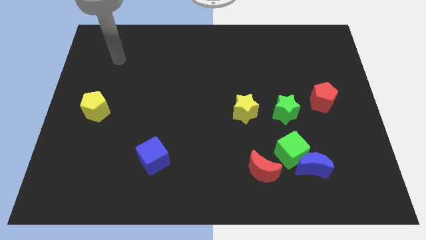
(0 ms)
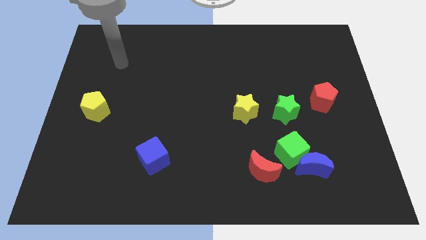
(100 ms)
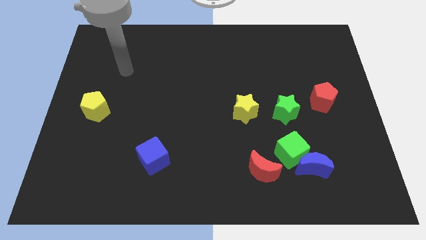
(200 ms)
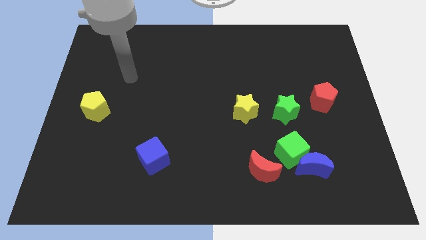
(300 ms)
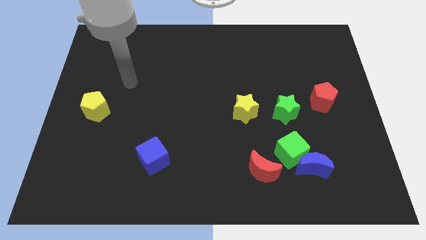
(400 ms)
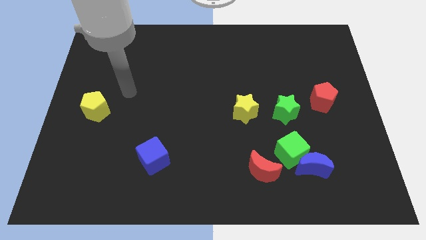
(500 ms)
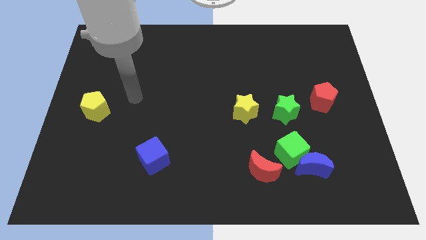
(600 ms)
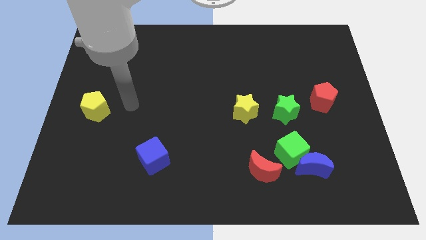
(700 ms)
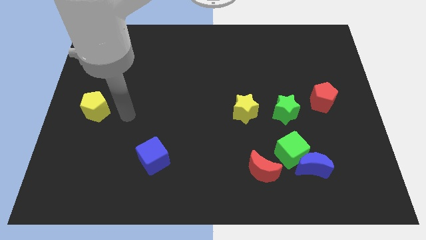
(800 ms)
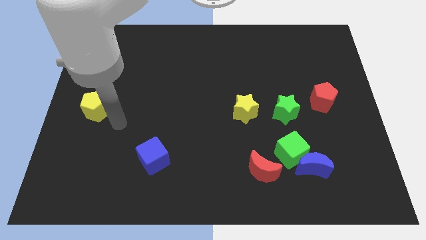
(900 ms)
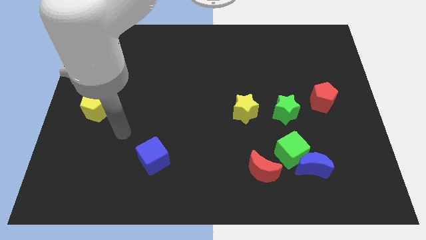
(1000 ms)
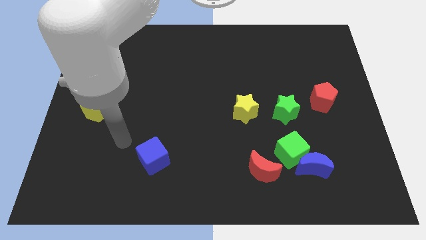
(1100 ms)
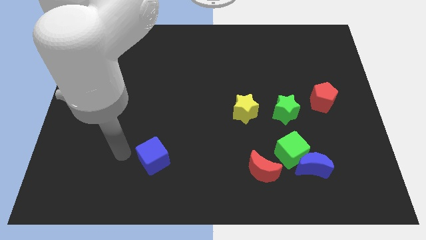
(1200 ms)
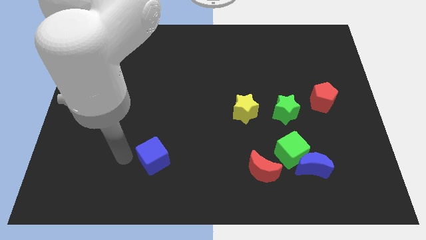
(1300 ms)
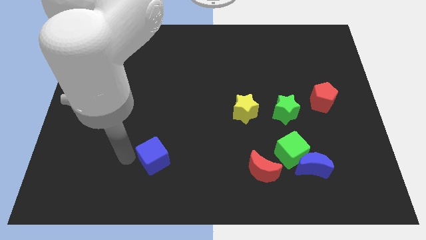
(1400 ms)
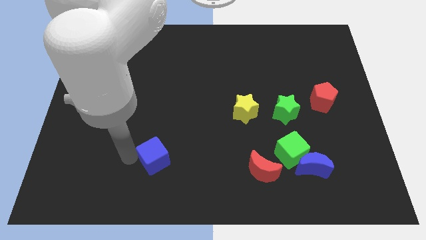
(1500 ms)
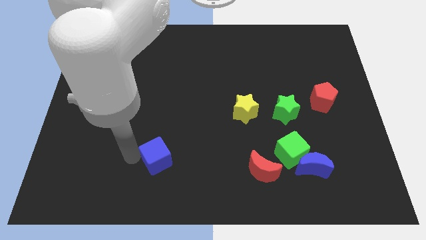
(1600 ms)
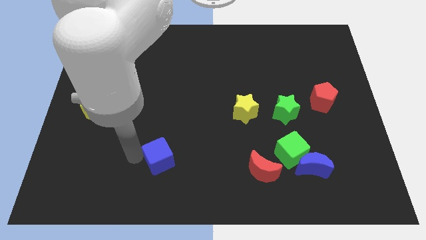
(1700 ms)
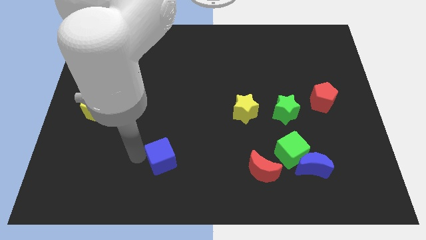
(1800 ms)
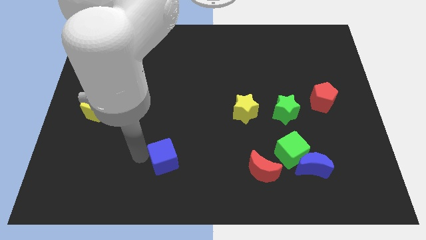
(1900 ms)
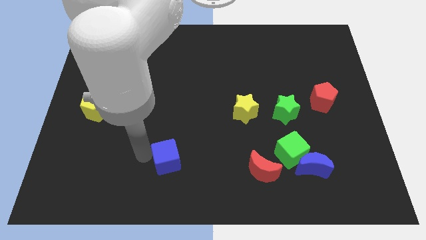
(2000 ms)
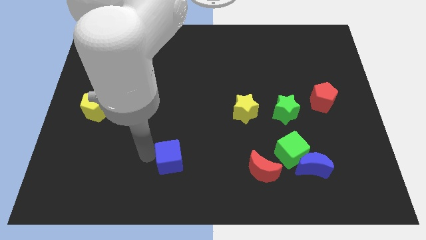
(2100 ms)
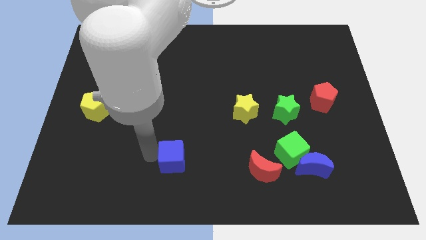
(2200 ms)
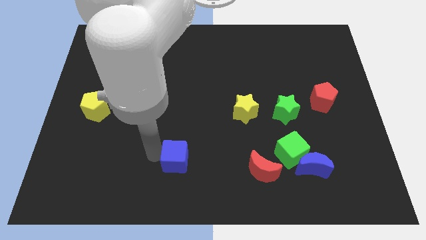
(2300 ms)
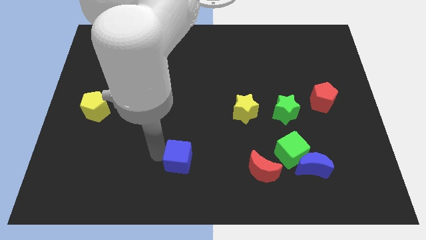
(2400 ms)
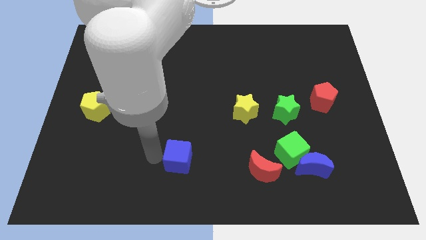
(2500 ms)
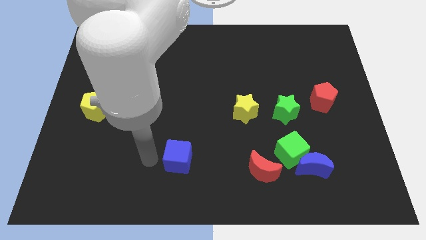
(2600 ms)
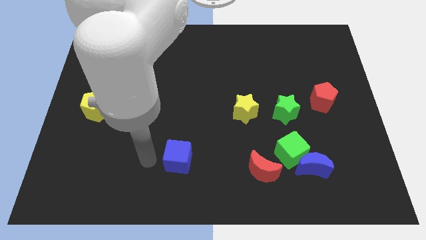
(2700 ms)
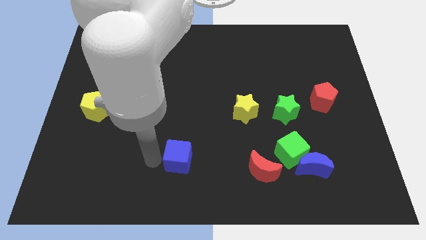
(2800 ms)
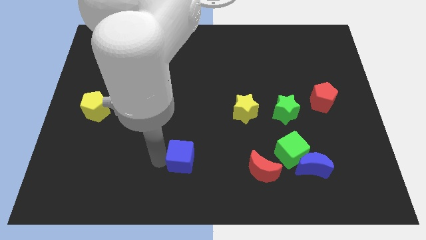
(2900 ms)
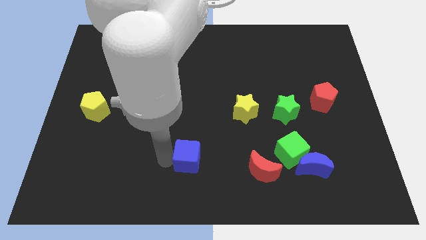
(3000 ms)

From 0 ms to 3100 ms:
move the blue cube somewhat to the right

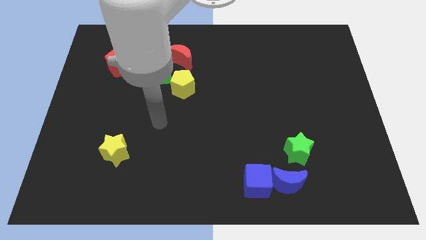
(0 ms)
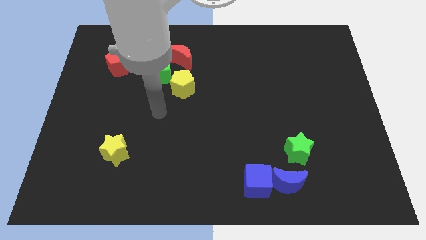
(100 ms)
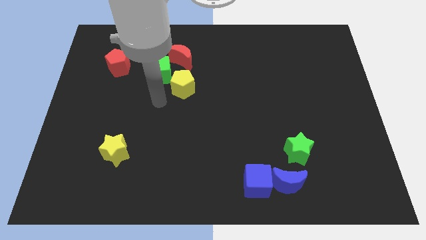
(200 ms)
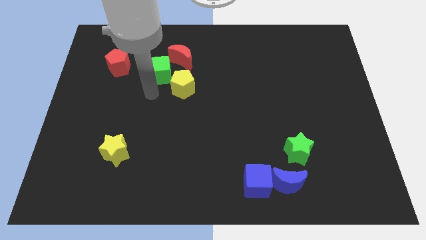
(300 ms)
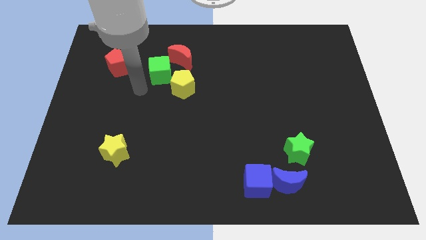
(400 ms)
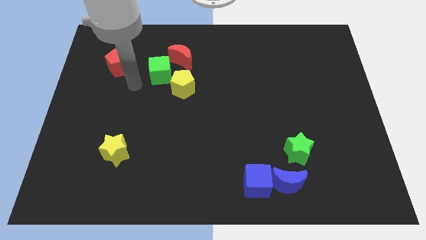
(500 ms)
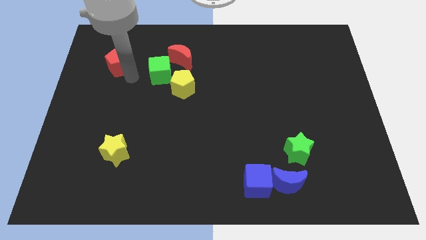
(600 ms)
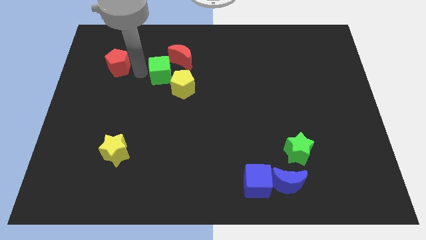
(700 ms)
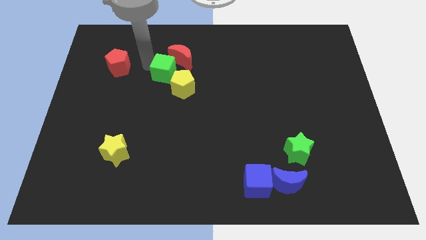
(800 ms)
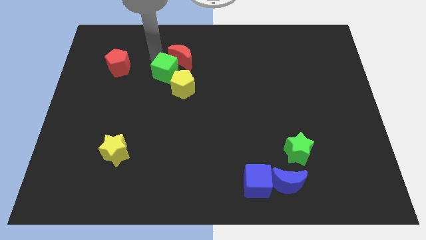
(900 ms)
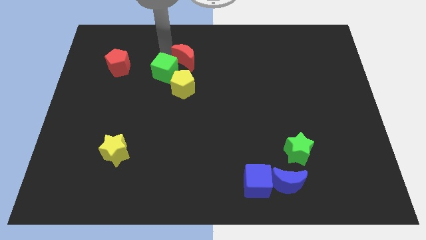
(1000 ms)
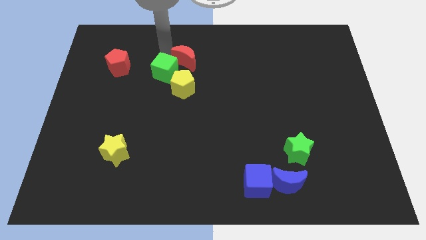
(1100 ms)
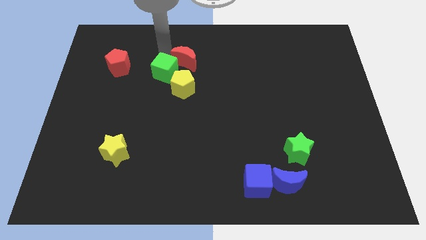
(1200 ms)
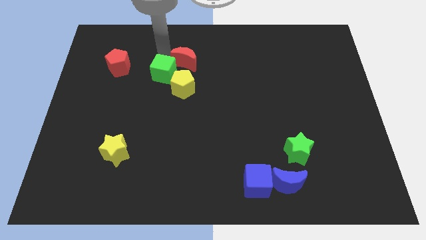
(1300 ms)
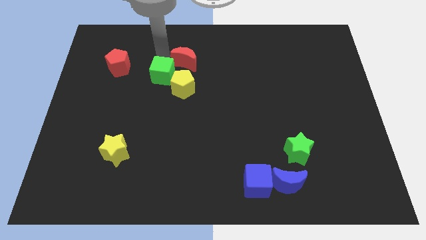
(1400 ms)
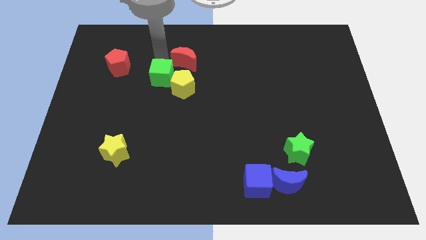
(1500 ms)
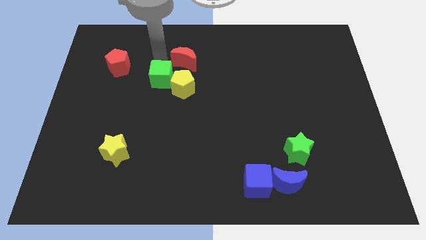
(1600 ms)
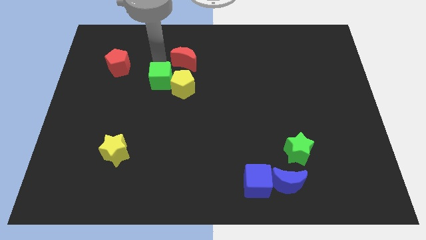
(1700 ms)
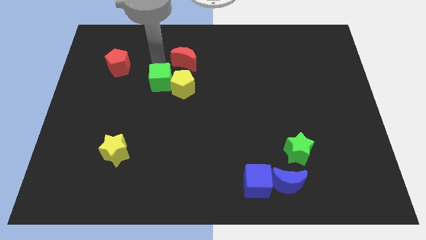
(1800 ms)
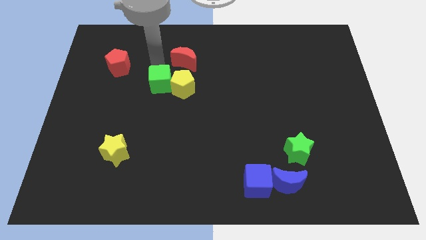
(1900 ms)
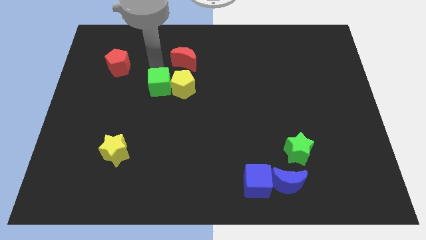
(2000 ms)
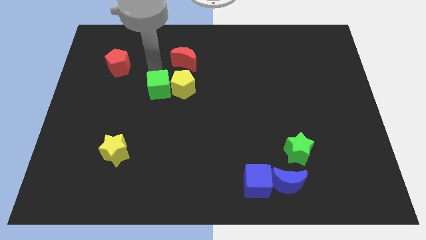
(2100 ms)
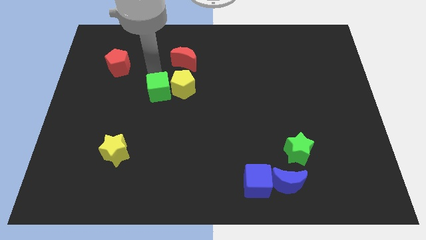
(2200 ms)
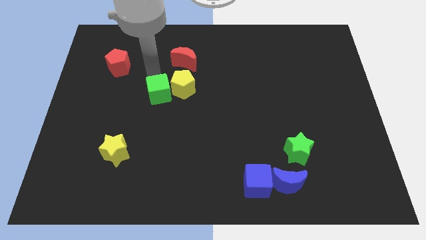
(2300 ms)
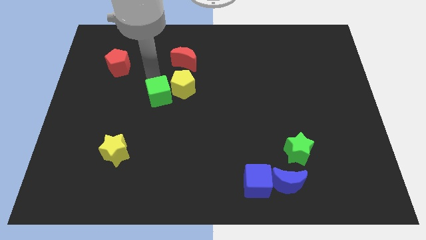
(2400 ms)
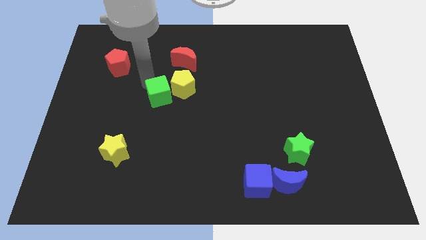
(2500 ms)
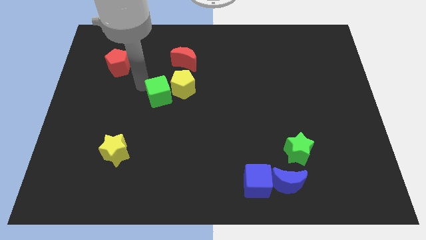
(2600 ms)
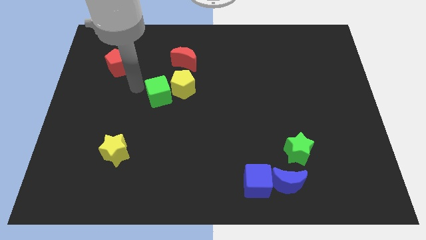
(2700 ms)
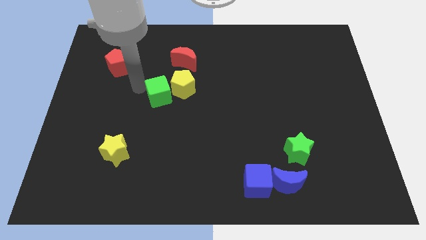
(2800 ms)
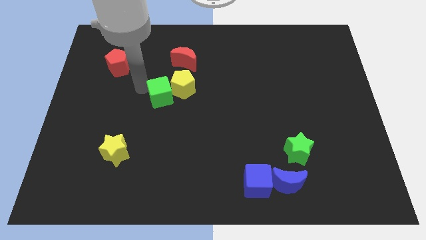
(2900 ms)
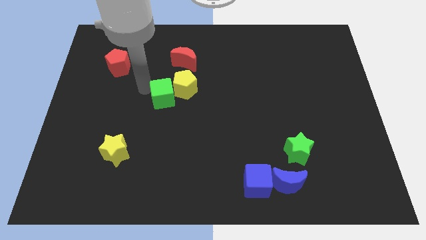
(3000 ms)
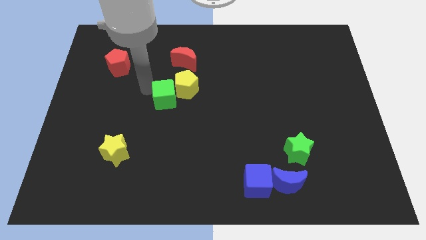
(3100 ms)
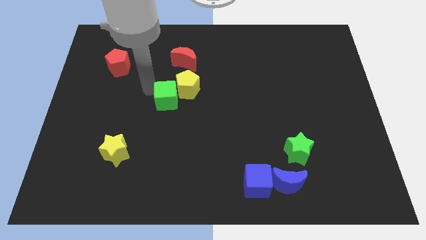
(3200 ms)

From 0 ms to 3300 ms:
slide the green cube down and to the right a little bit

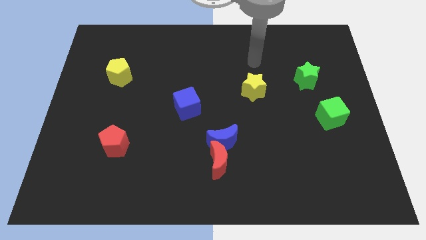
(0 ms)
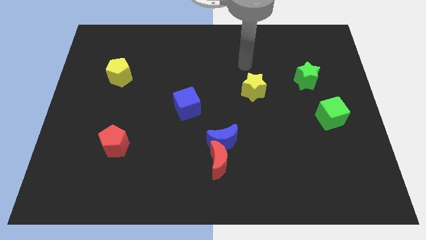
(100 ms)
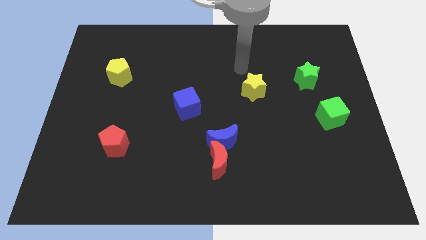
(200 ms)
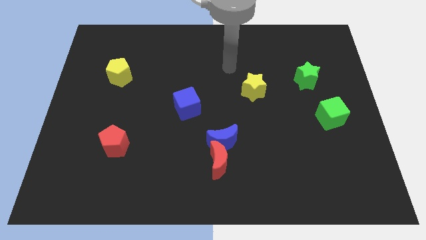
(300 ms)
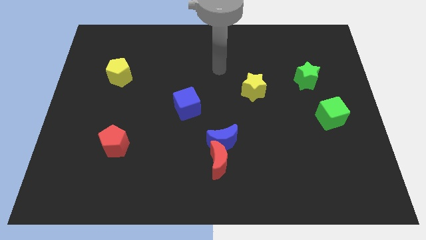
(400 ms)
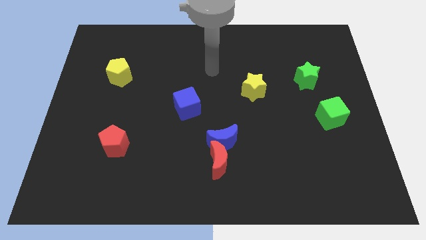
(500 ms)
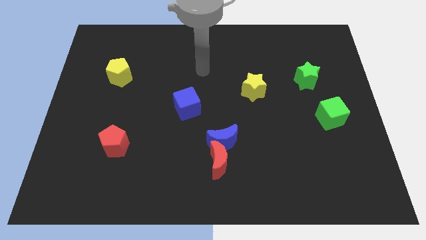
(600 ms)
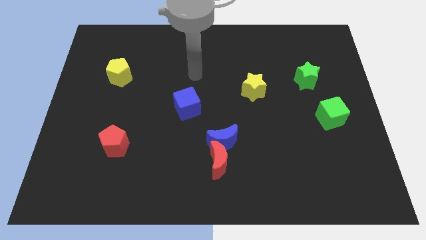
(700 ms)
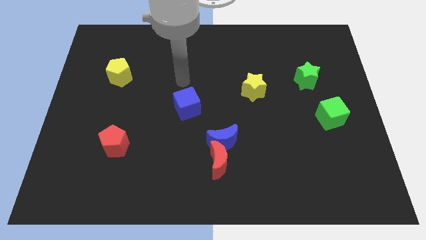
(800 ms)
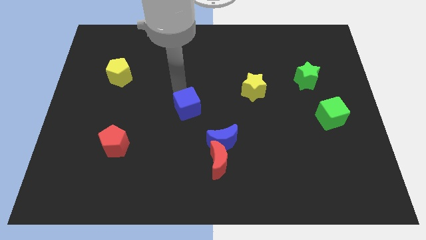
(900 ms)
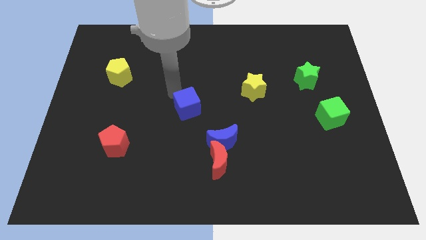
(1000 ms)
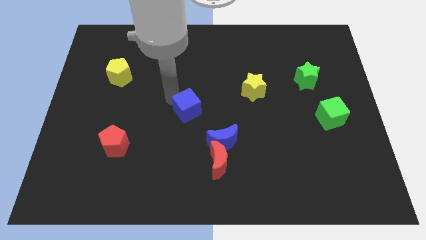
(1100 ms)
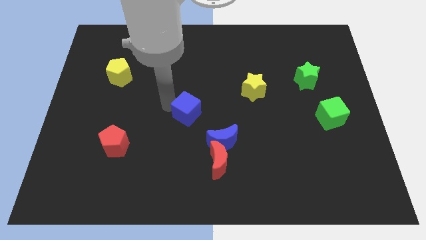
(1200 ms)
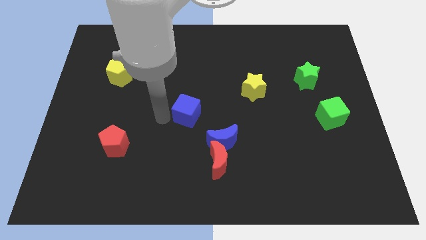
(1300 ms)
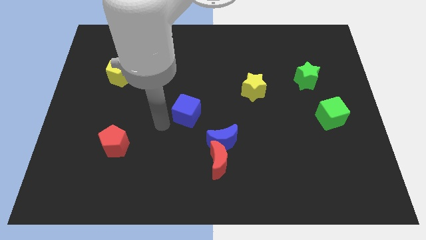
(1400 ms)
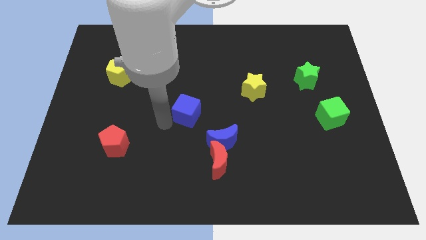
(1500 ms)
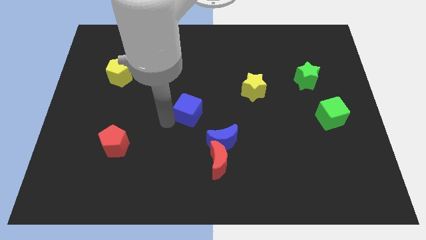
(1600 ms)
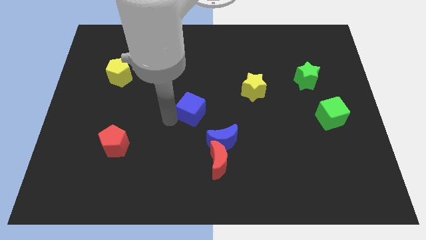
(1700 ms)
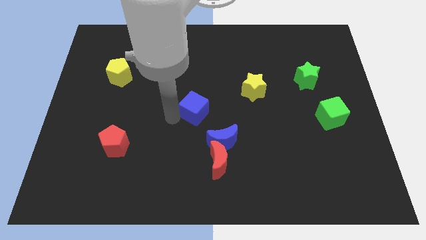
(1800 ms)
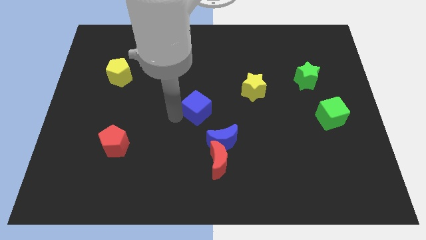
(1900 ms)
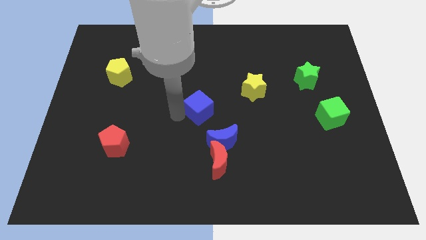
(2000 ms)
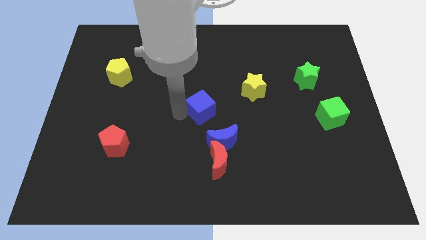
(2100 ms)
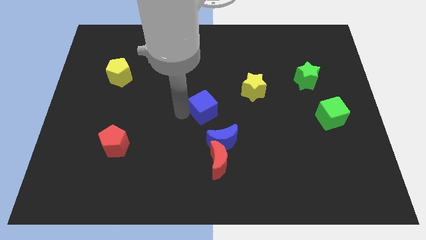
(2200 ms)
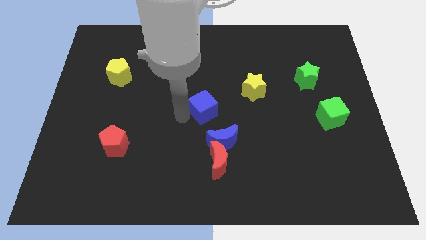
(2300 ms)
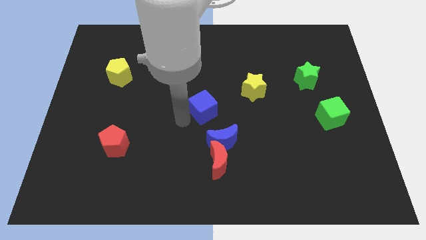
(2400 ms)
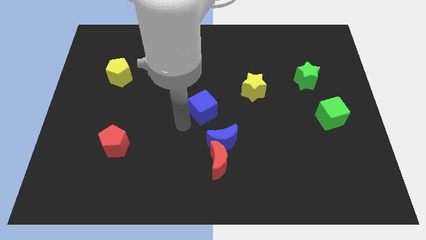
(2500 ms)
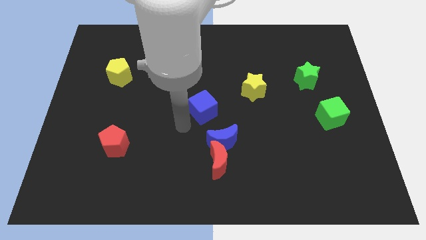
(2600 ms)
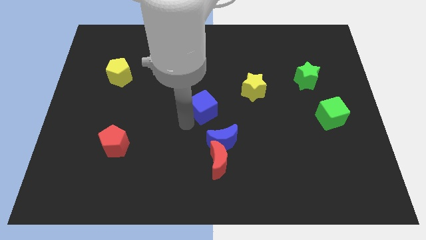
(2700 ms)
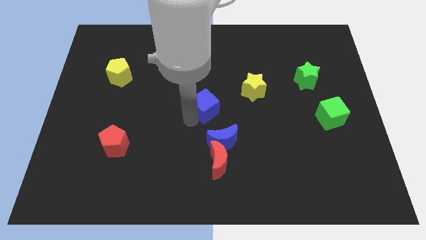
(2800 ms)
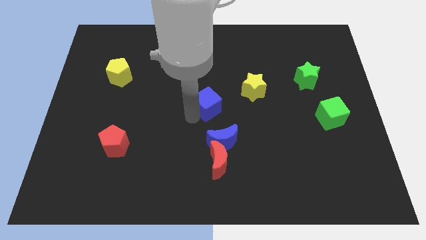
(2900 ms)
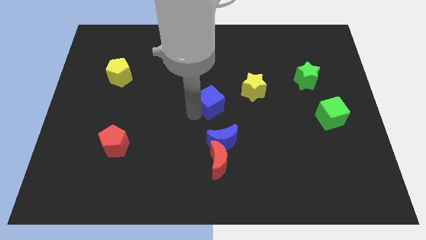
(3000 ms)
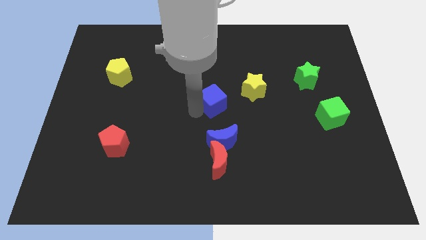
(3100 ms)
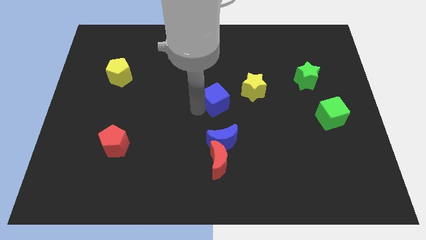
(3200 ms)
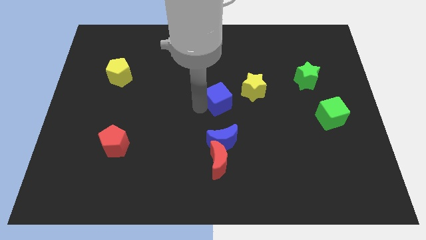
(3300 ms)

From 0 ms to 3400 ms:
push the blue cube to the right slightly
